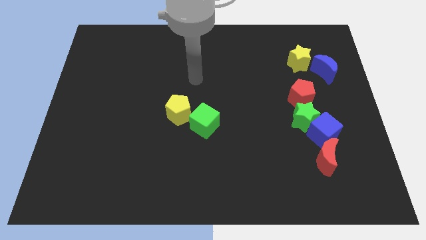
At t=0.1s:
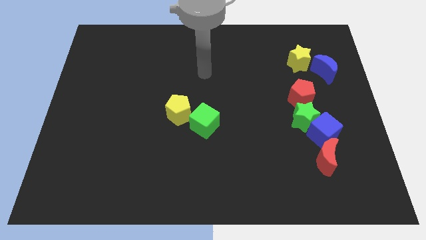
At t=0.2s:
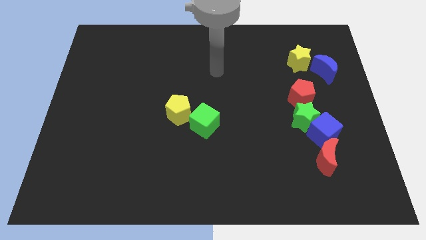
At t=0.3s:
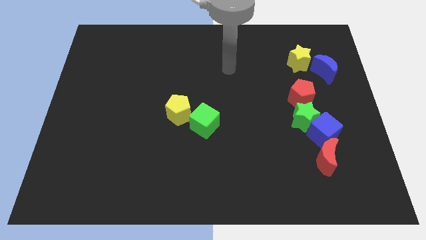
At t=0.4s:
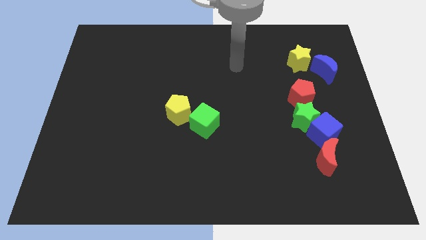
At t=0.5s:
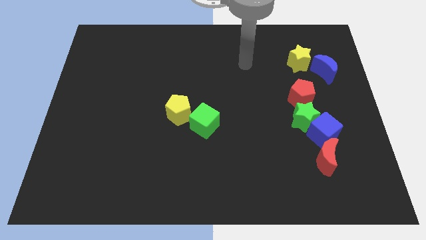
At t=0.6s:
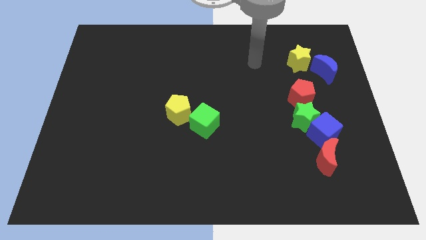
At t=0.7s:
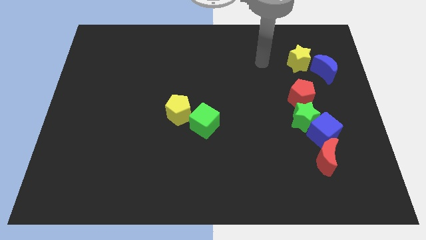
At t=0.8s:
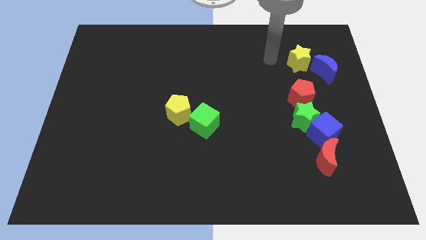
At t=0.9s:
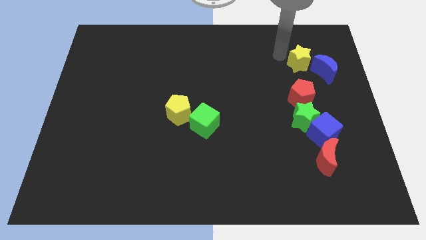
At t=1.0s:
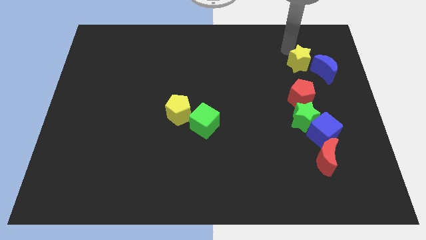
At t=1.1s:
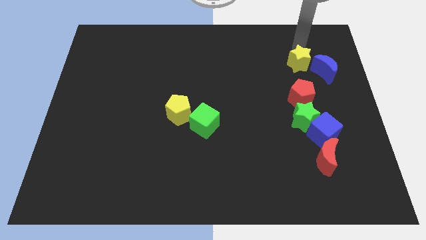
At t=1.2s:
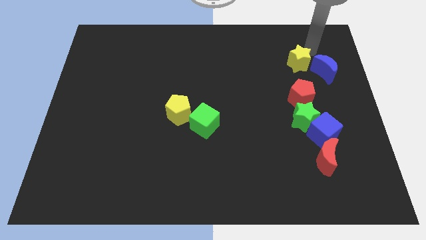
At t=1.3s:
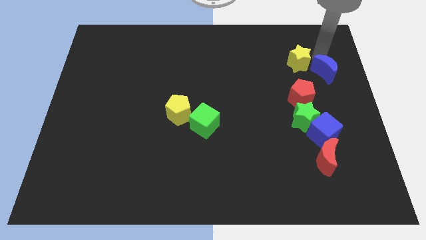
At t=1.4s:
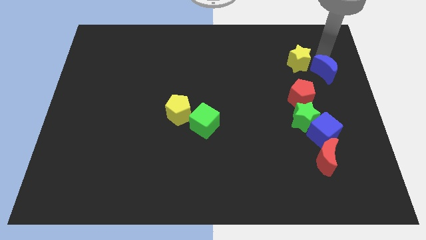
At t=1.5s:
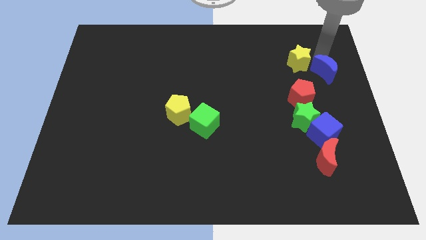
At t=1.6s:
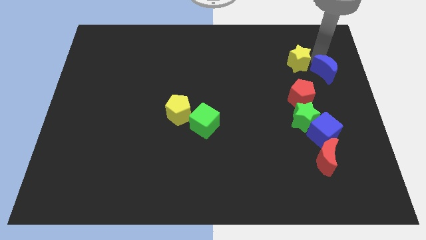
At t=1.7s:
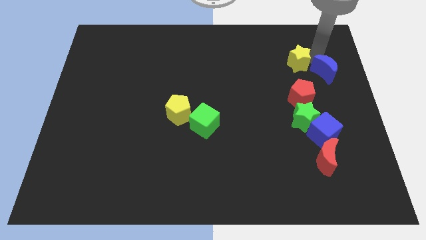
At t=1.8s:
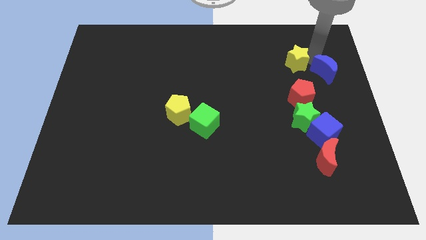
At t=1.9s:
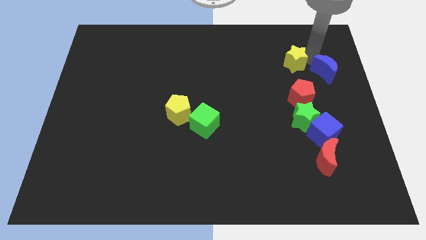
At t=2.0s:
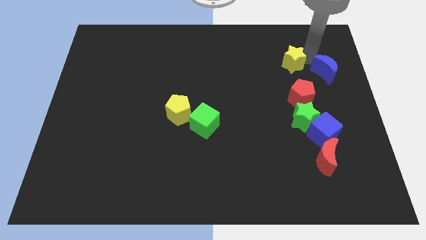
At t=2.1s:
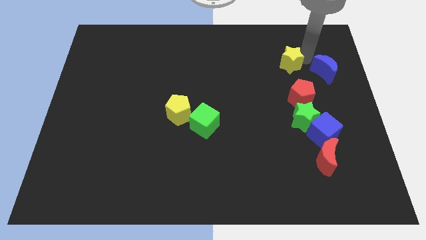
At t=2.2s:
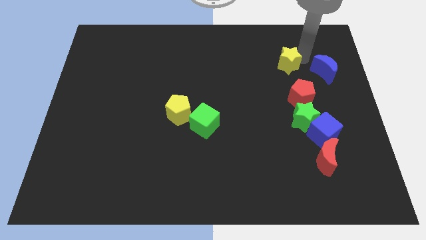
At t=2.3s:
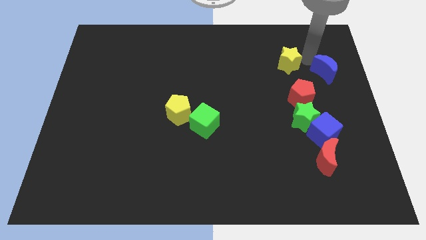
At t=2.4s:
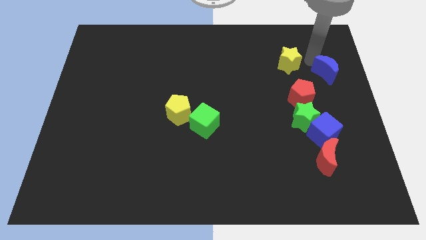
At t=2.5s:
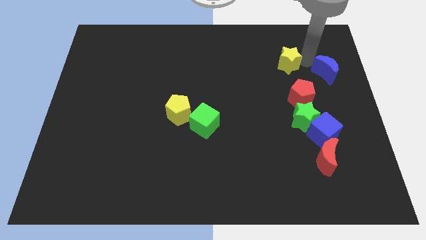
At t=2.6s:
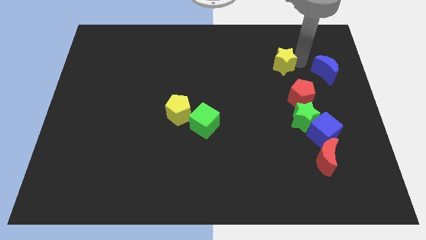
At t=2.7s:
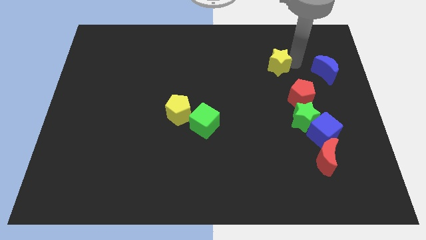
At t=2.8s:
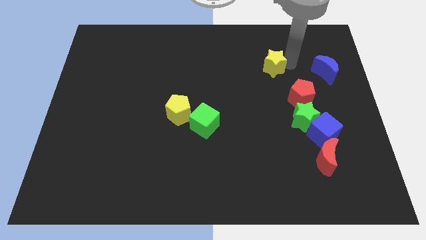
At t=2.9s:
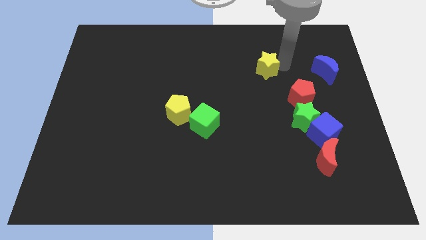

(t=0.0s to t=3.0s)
slightly move the yellow star left

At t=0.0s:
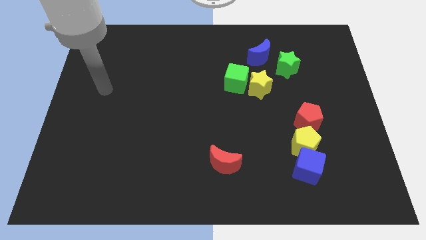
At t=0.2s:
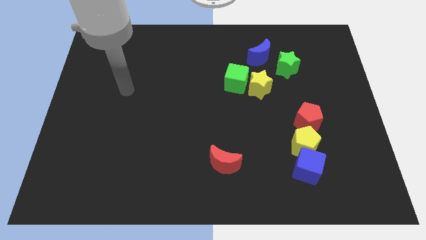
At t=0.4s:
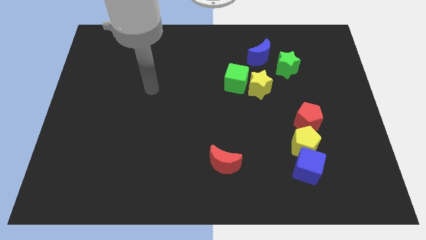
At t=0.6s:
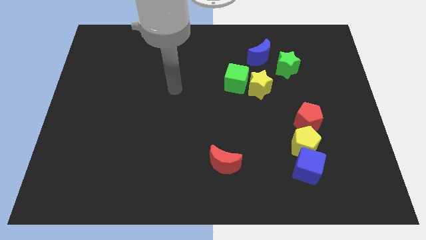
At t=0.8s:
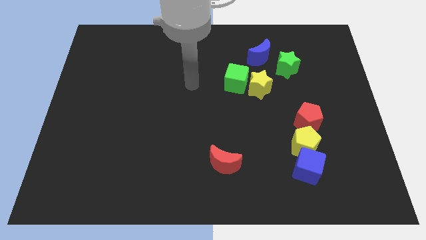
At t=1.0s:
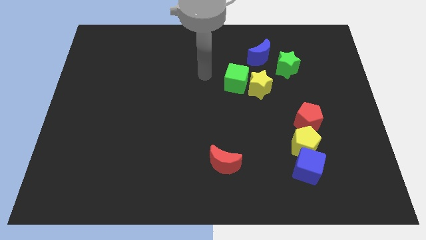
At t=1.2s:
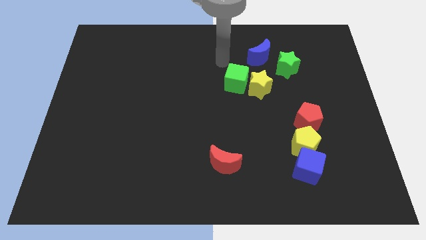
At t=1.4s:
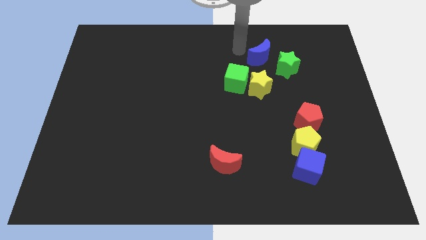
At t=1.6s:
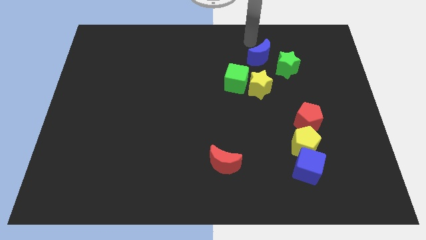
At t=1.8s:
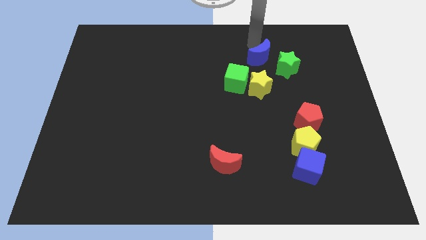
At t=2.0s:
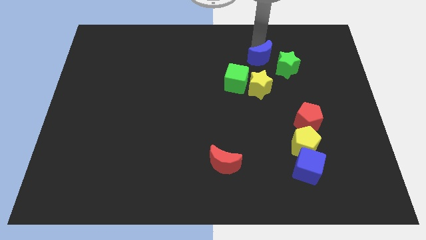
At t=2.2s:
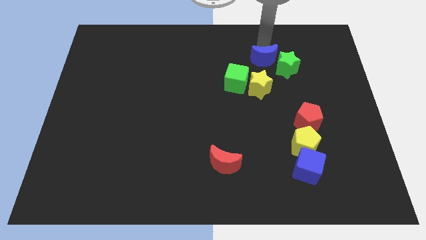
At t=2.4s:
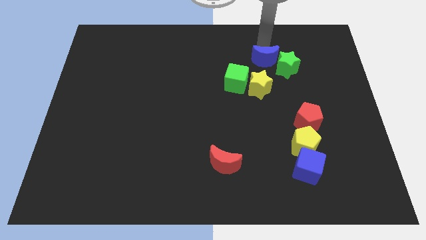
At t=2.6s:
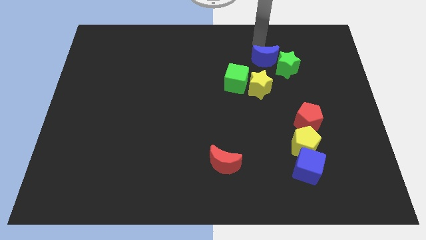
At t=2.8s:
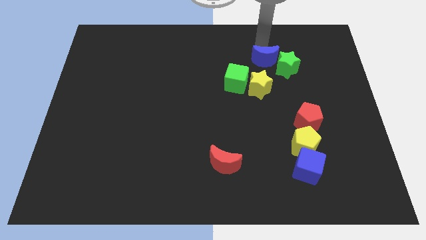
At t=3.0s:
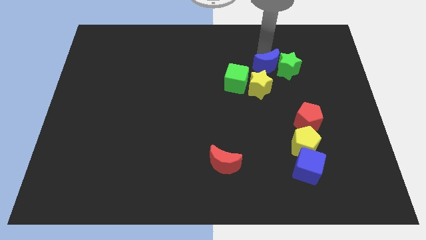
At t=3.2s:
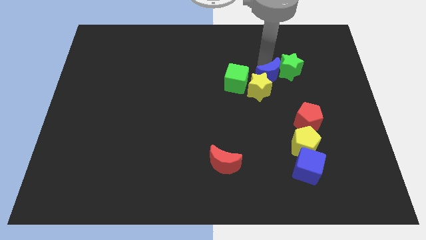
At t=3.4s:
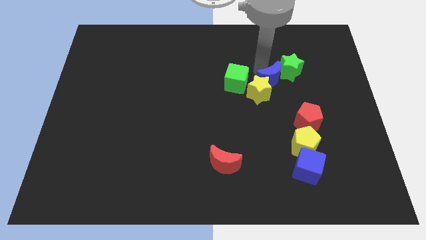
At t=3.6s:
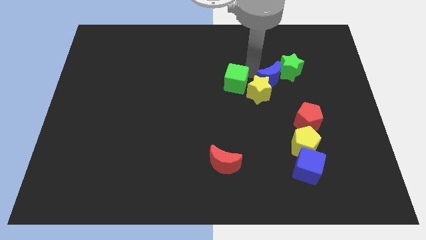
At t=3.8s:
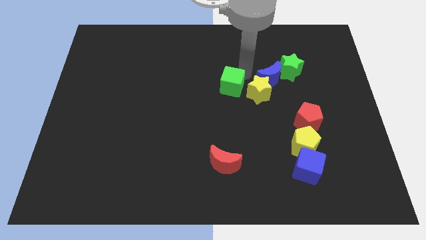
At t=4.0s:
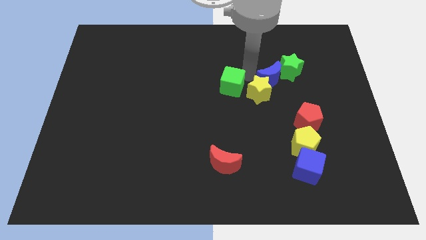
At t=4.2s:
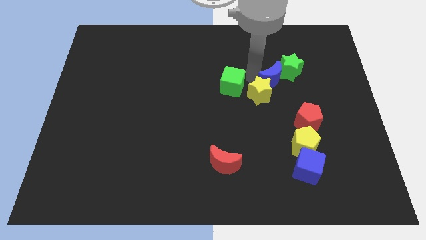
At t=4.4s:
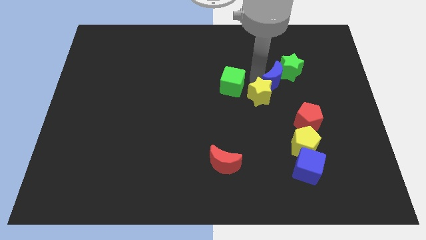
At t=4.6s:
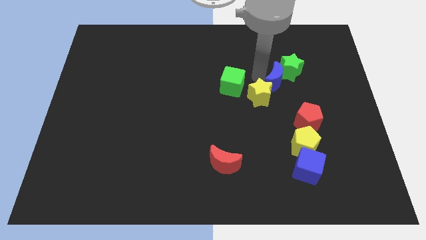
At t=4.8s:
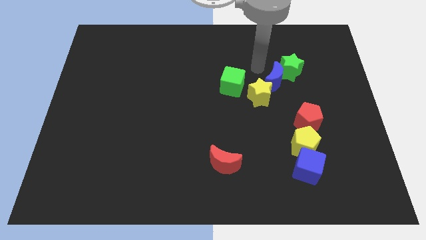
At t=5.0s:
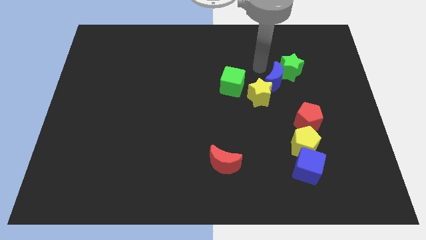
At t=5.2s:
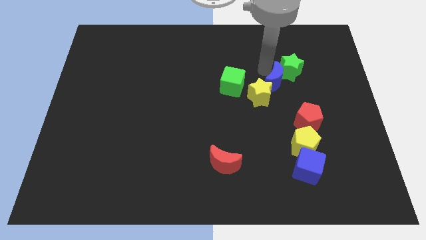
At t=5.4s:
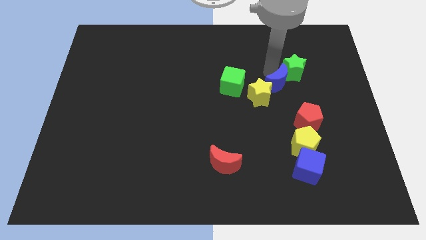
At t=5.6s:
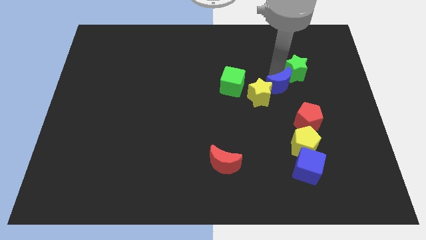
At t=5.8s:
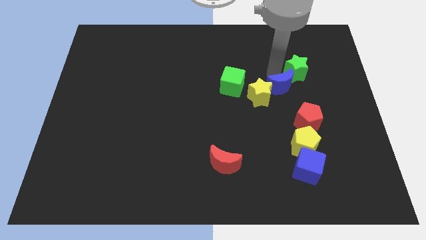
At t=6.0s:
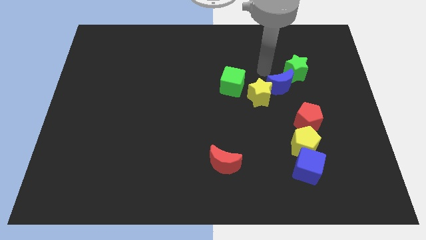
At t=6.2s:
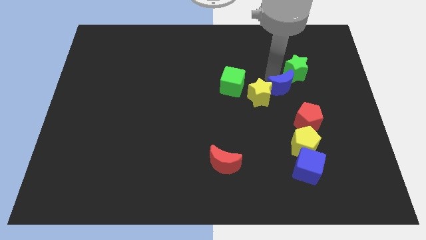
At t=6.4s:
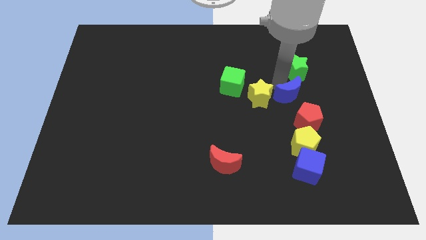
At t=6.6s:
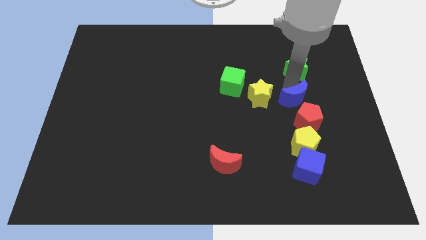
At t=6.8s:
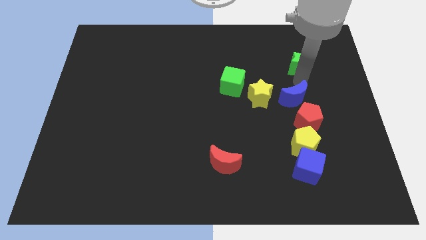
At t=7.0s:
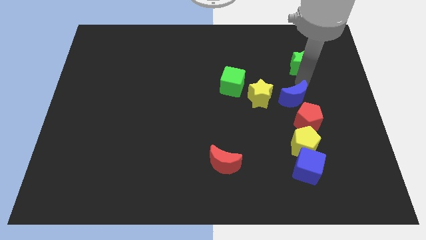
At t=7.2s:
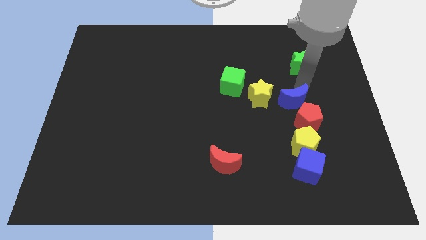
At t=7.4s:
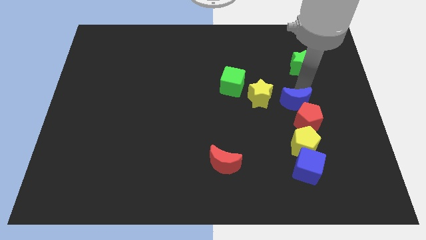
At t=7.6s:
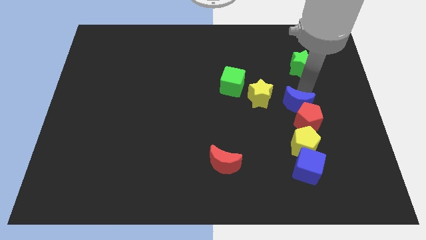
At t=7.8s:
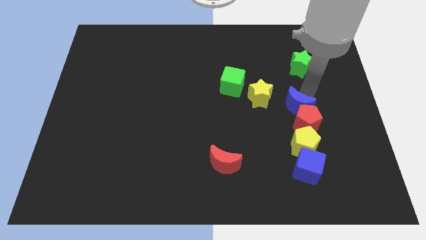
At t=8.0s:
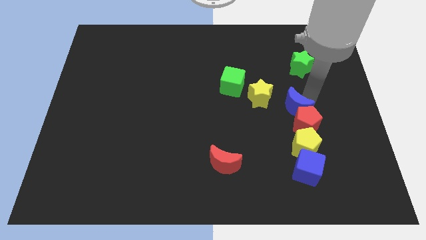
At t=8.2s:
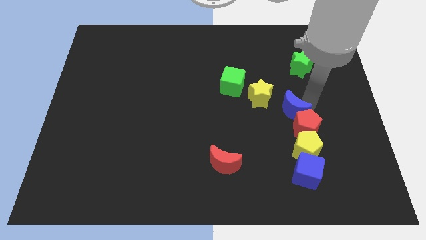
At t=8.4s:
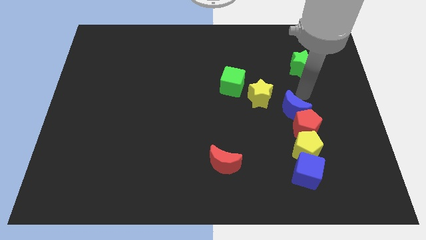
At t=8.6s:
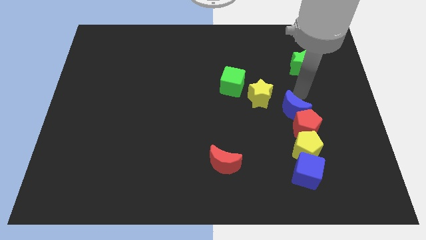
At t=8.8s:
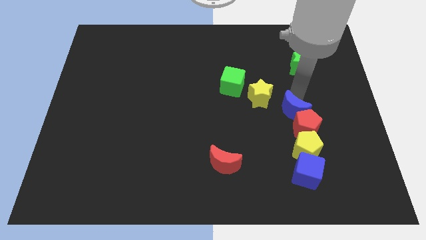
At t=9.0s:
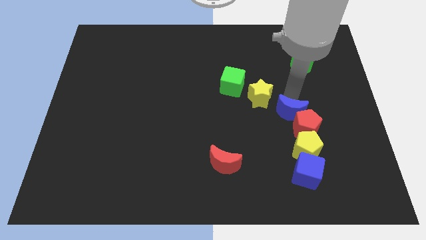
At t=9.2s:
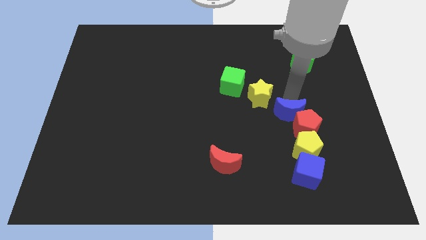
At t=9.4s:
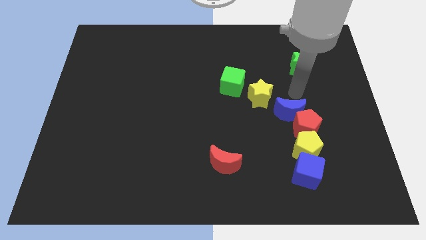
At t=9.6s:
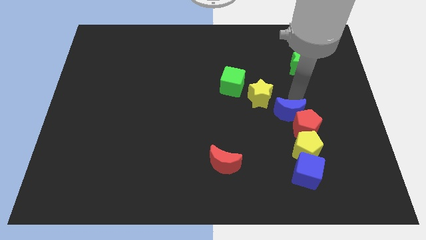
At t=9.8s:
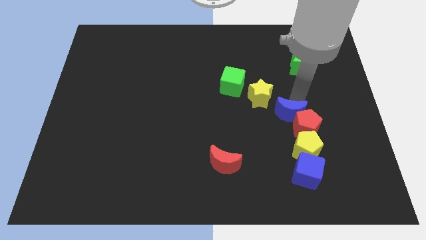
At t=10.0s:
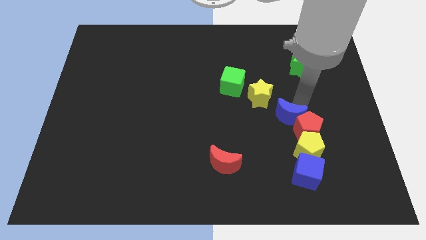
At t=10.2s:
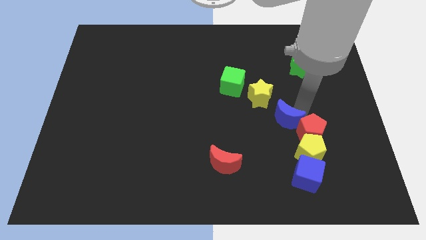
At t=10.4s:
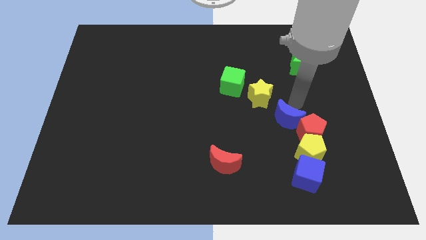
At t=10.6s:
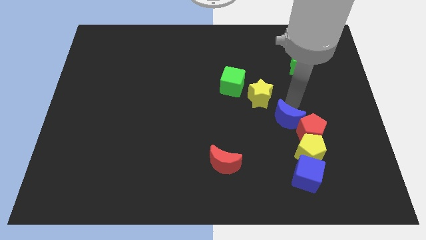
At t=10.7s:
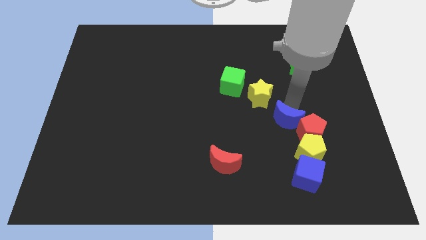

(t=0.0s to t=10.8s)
move the blue moon down
